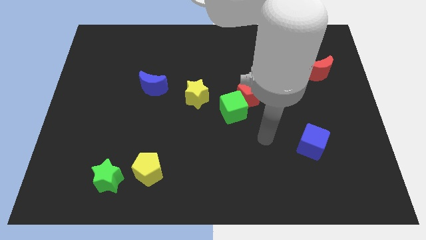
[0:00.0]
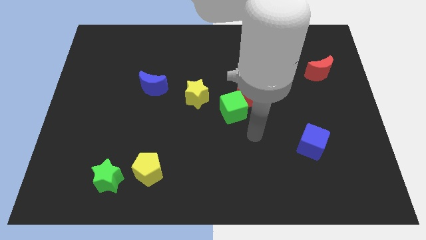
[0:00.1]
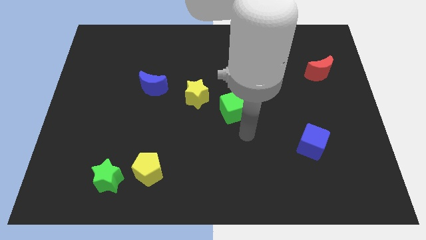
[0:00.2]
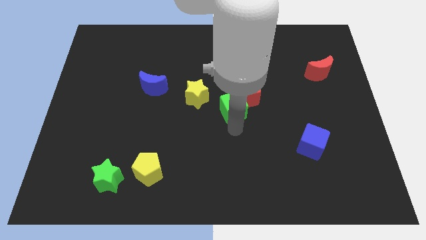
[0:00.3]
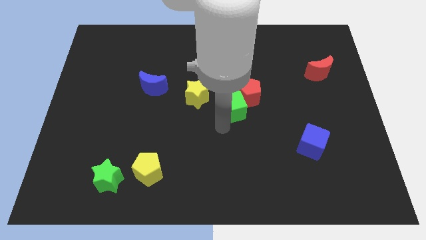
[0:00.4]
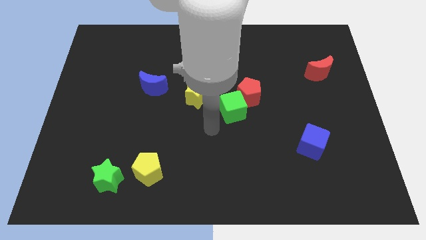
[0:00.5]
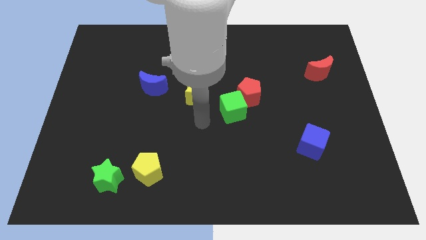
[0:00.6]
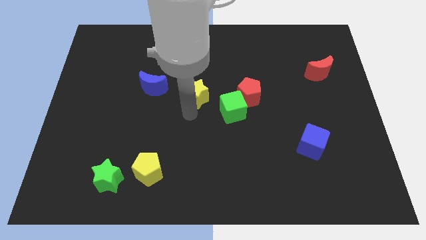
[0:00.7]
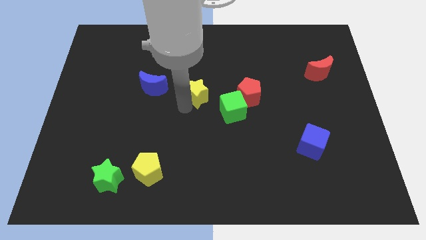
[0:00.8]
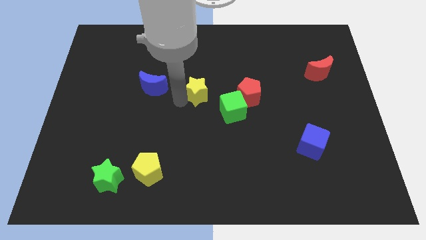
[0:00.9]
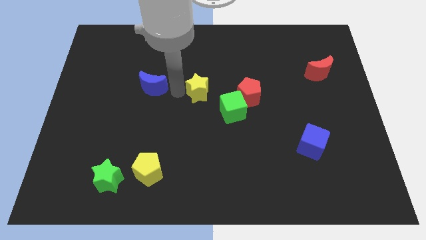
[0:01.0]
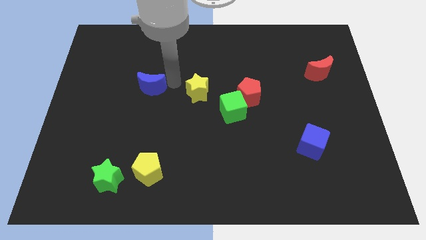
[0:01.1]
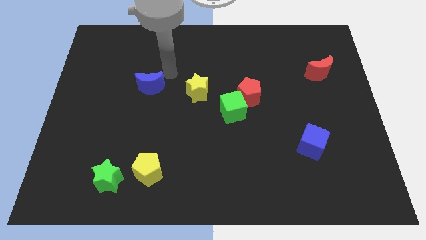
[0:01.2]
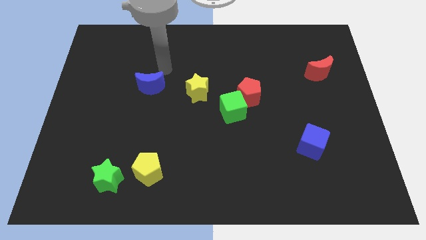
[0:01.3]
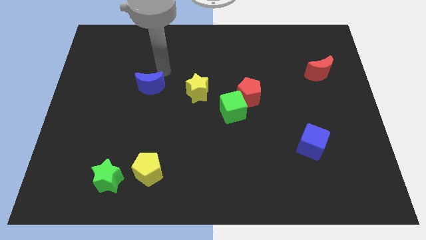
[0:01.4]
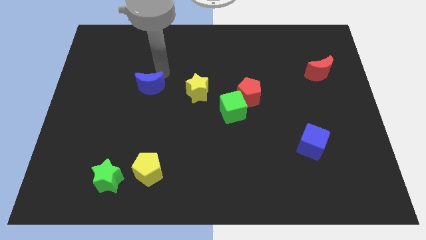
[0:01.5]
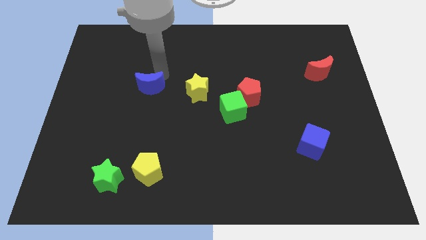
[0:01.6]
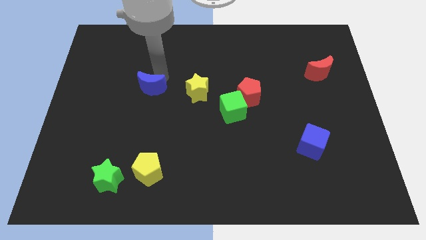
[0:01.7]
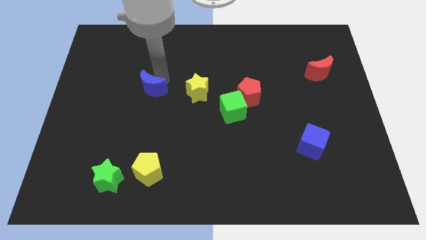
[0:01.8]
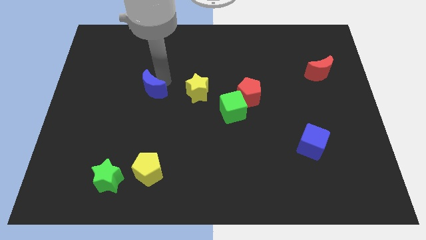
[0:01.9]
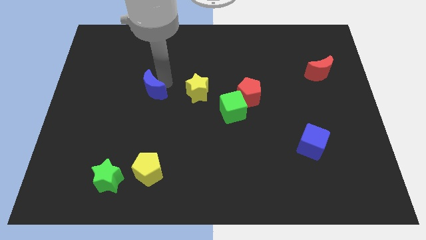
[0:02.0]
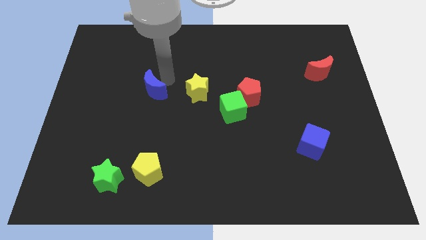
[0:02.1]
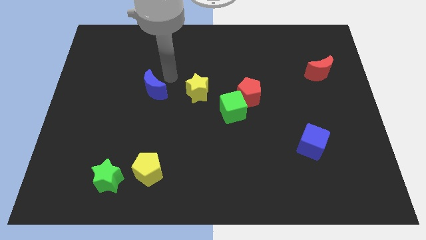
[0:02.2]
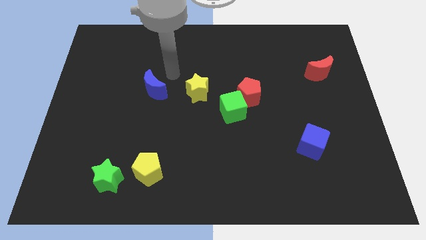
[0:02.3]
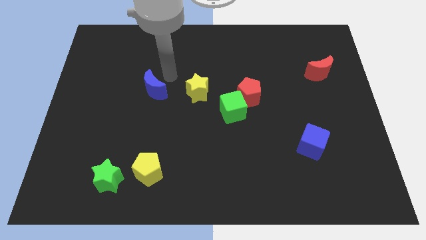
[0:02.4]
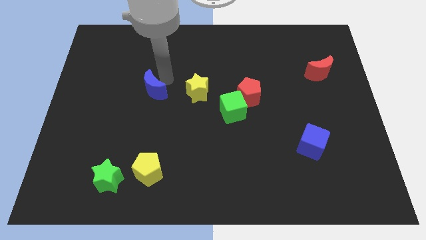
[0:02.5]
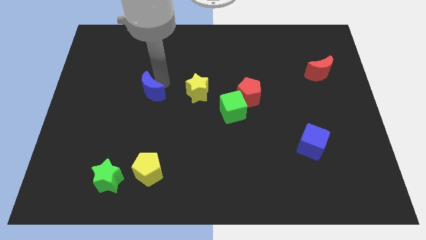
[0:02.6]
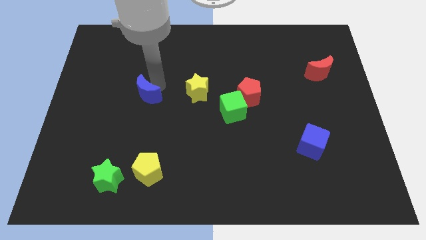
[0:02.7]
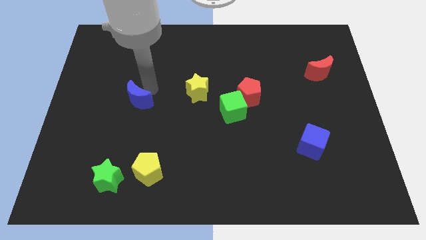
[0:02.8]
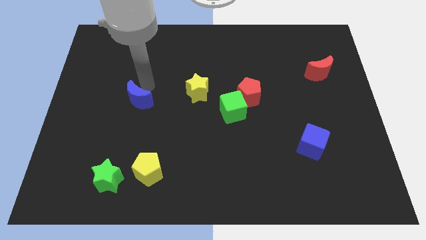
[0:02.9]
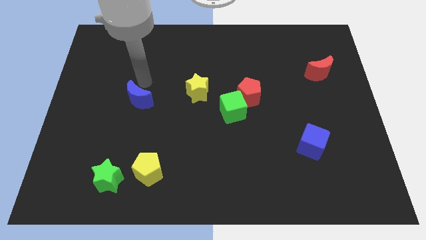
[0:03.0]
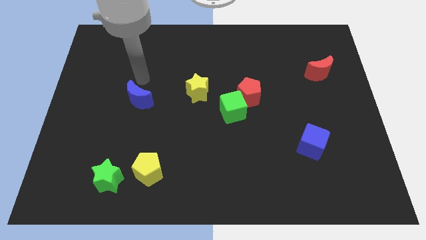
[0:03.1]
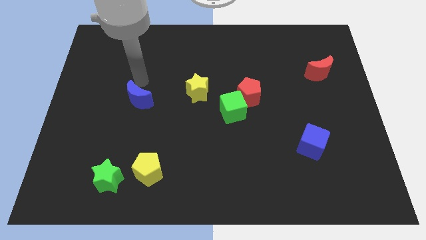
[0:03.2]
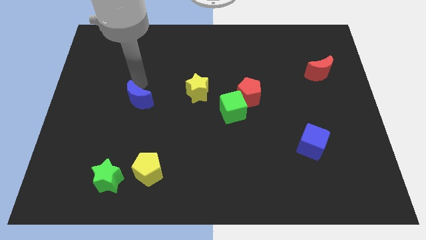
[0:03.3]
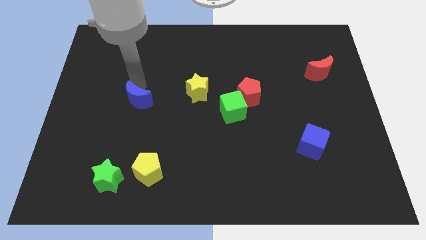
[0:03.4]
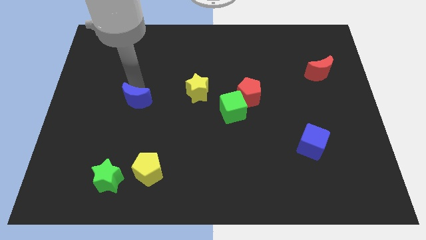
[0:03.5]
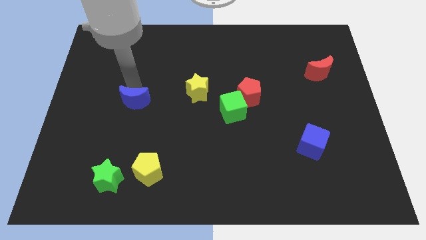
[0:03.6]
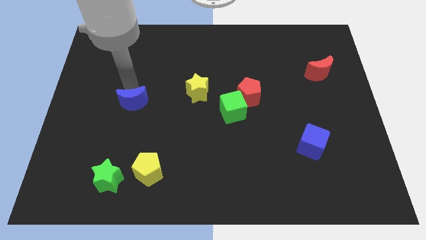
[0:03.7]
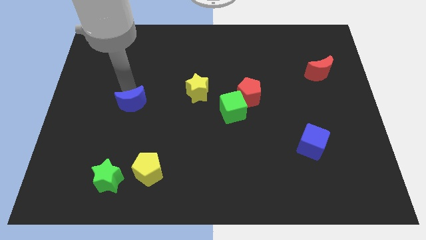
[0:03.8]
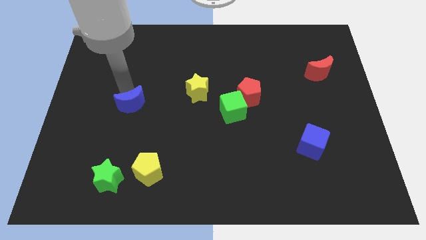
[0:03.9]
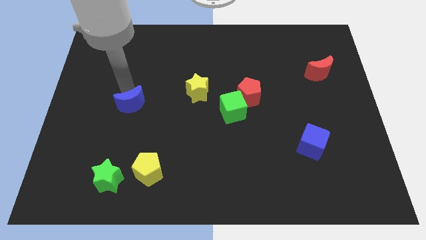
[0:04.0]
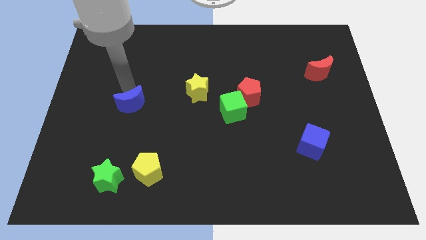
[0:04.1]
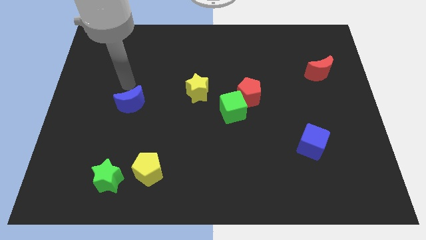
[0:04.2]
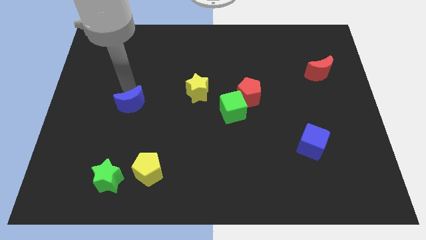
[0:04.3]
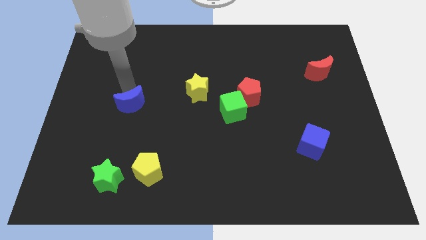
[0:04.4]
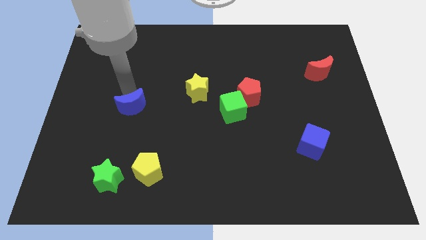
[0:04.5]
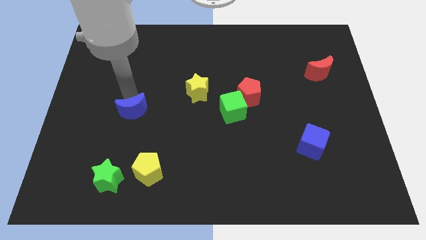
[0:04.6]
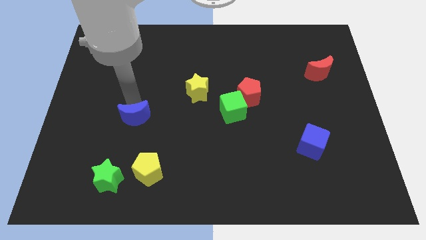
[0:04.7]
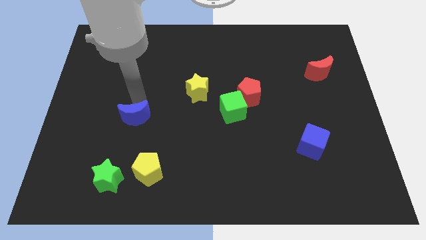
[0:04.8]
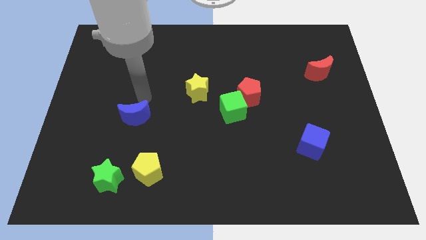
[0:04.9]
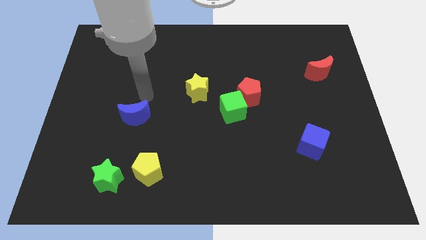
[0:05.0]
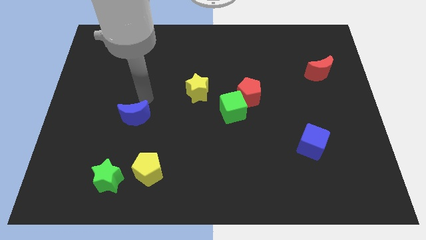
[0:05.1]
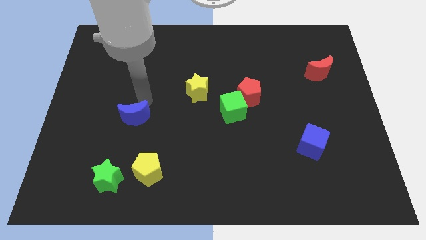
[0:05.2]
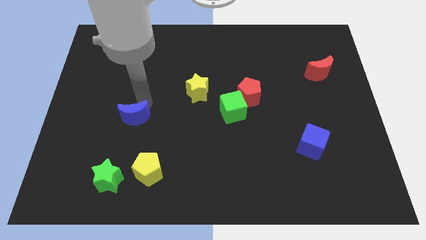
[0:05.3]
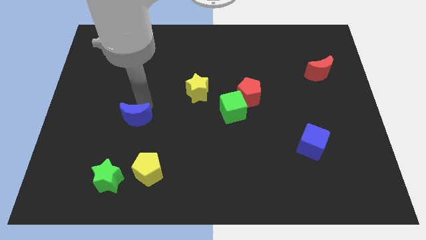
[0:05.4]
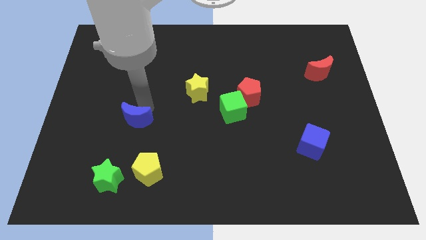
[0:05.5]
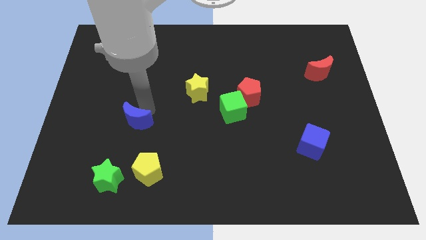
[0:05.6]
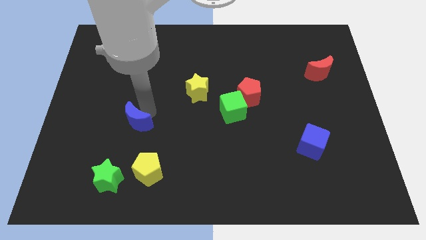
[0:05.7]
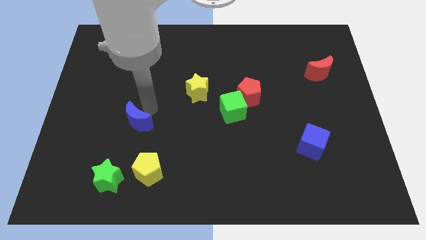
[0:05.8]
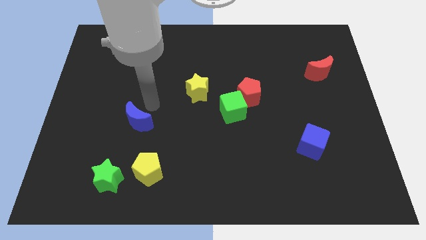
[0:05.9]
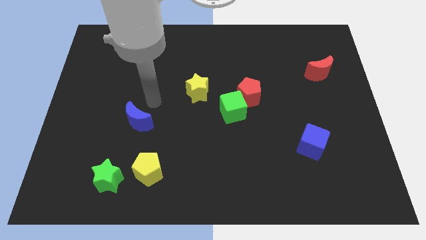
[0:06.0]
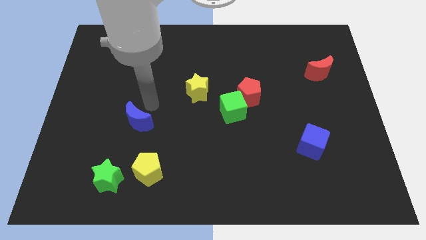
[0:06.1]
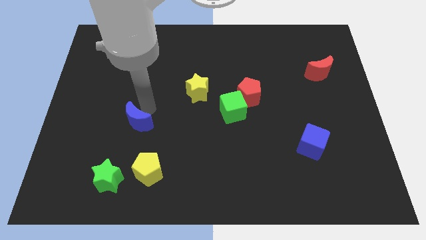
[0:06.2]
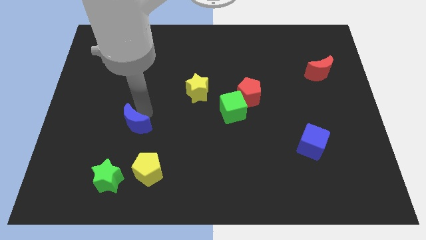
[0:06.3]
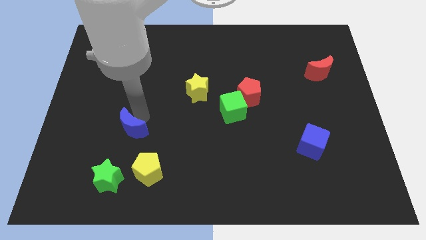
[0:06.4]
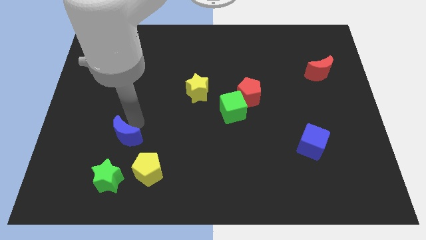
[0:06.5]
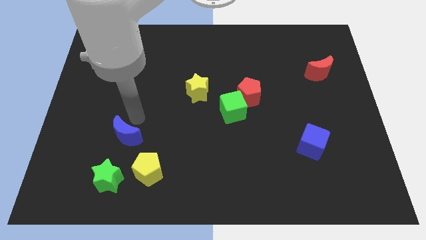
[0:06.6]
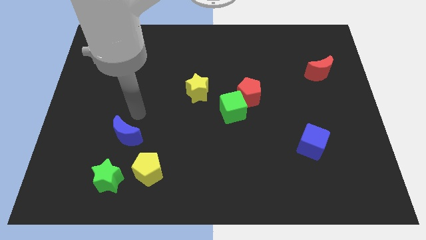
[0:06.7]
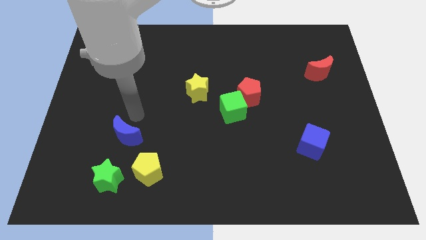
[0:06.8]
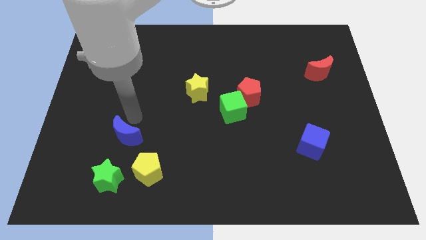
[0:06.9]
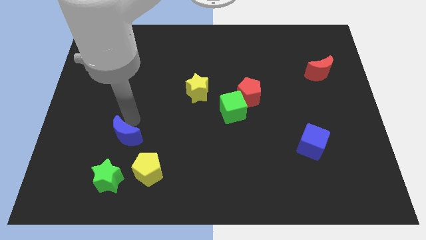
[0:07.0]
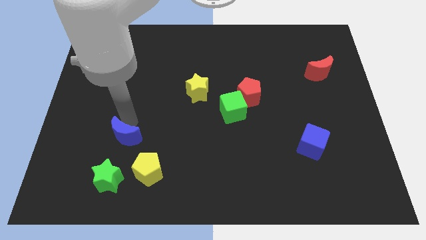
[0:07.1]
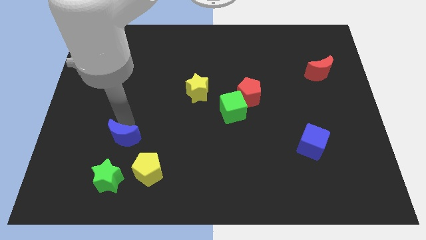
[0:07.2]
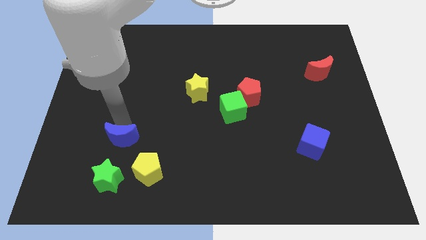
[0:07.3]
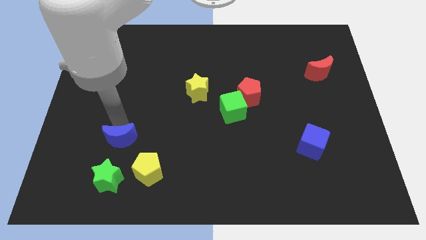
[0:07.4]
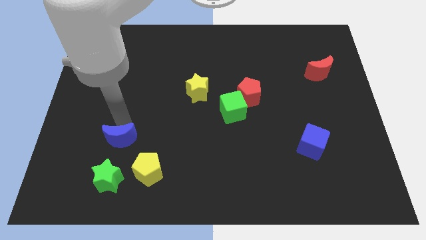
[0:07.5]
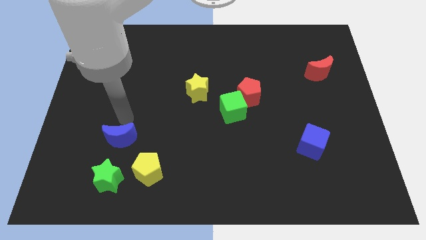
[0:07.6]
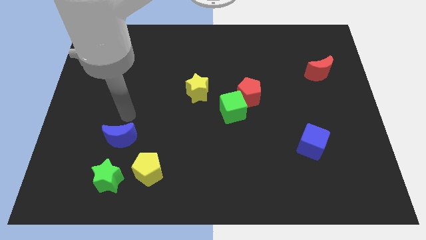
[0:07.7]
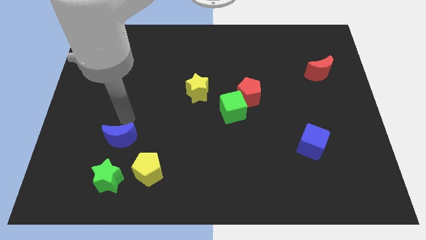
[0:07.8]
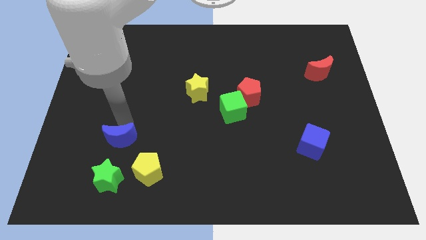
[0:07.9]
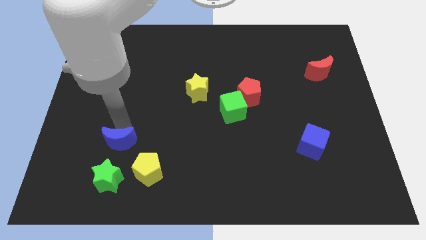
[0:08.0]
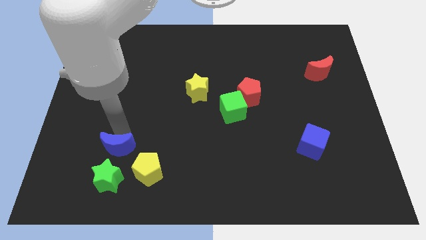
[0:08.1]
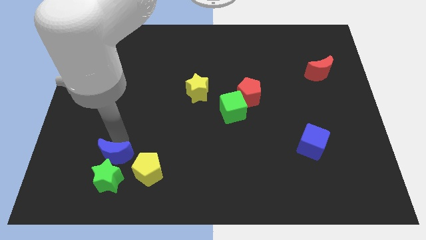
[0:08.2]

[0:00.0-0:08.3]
slide the blue moon close to the green star
